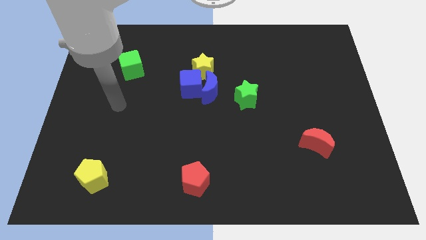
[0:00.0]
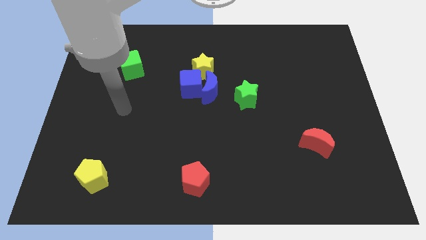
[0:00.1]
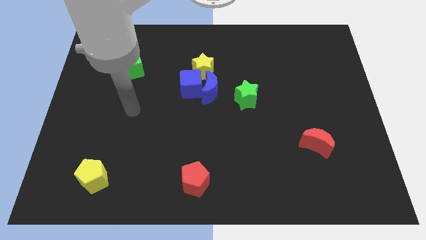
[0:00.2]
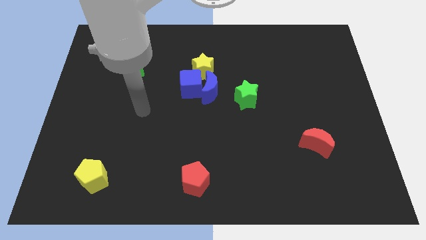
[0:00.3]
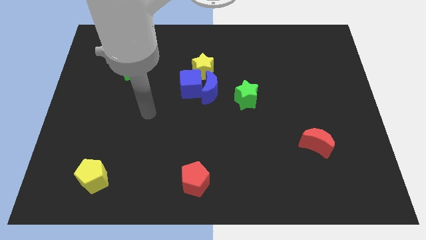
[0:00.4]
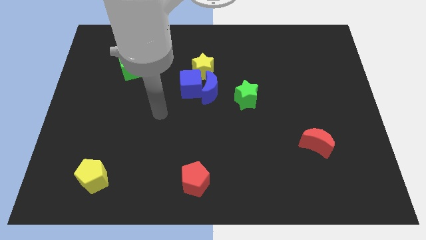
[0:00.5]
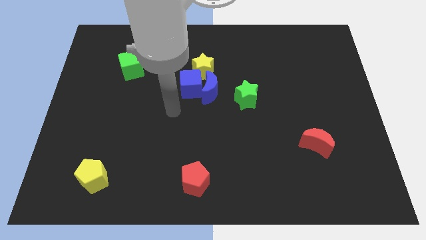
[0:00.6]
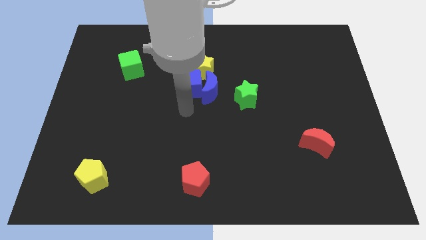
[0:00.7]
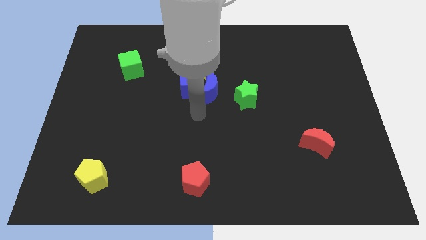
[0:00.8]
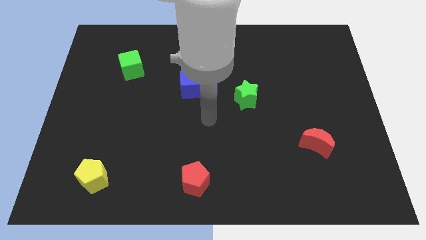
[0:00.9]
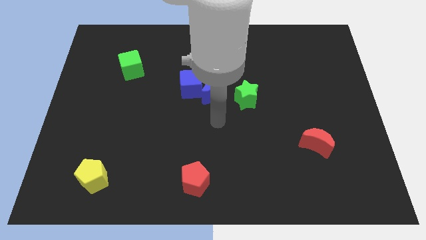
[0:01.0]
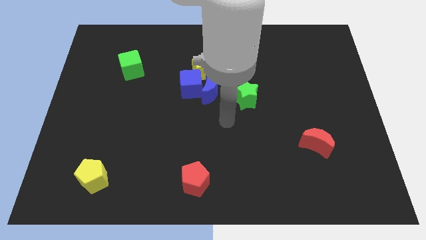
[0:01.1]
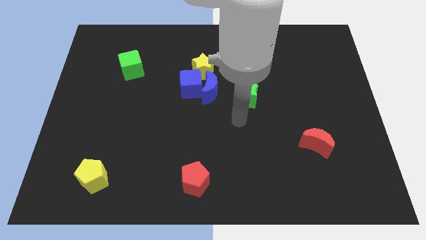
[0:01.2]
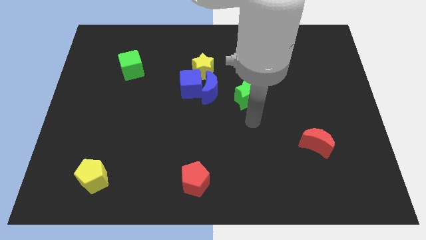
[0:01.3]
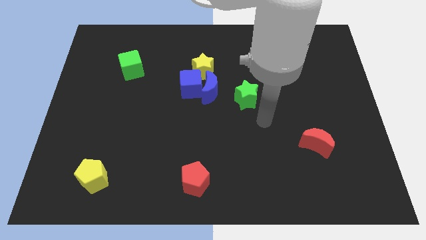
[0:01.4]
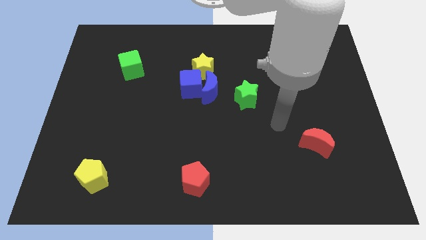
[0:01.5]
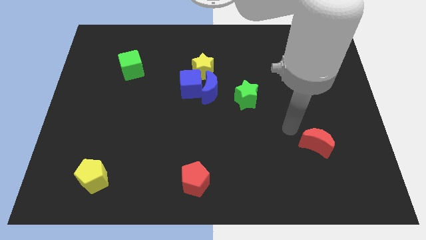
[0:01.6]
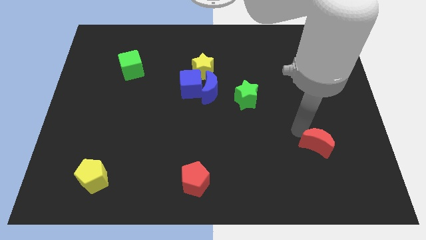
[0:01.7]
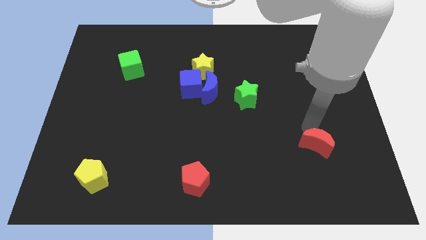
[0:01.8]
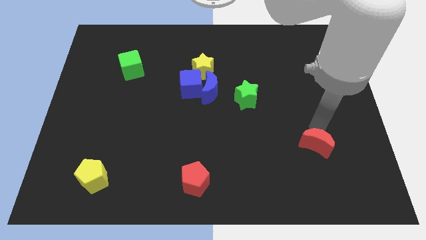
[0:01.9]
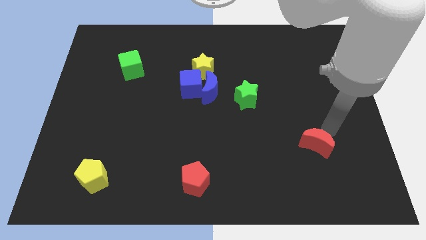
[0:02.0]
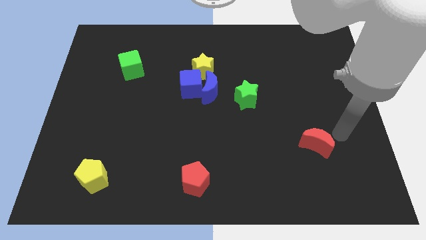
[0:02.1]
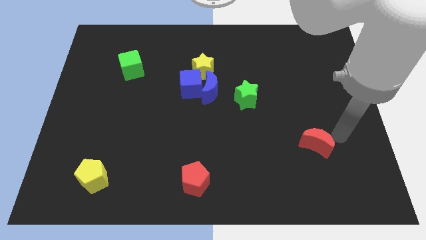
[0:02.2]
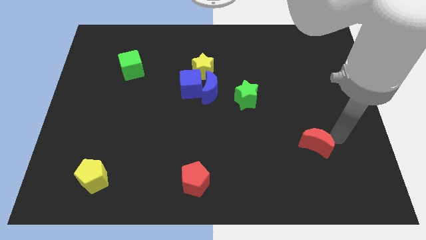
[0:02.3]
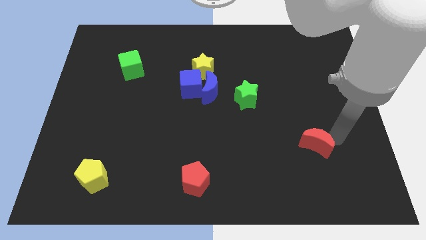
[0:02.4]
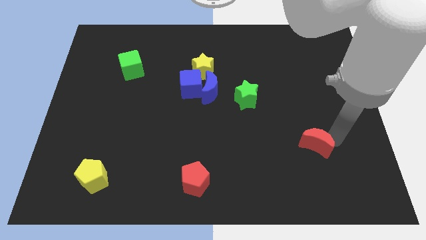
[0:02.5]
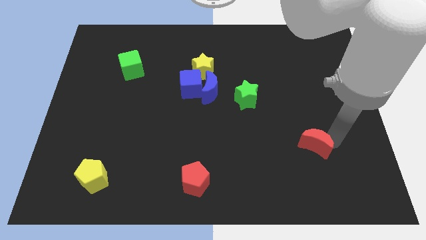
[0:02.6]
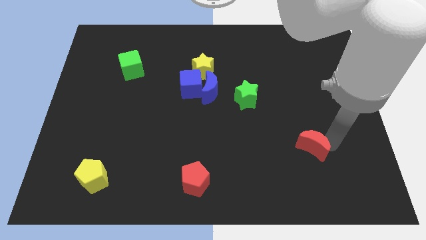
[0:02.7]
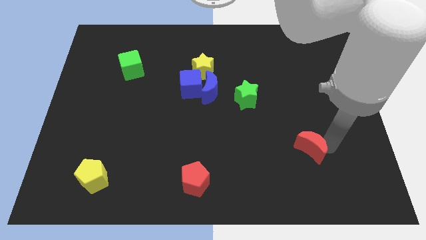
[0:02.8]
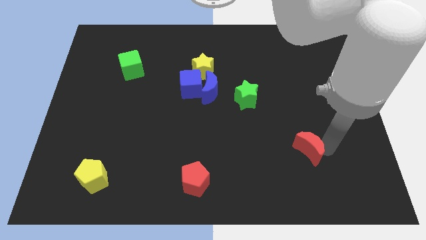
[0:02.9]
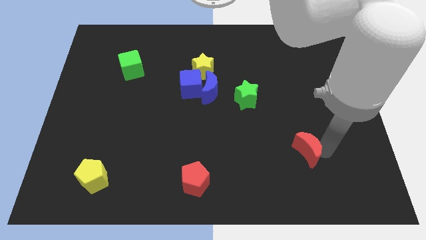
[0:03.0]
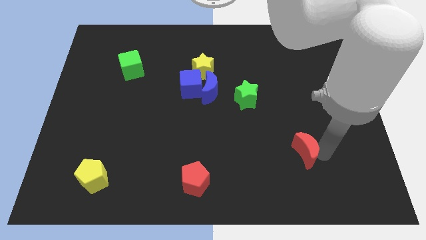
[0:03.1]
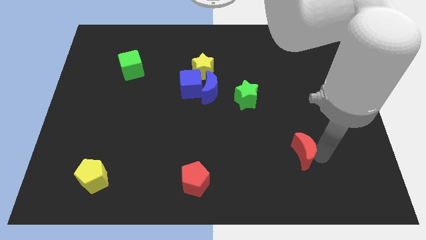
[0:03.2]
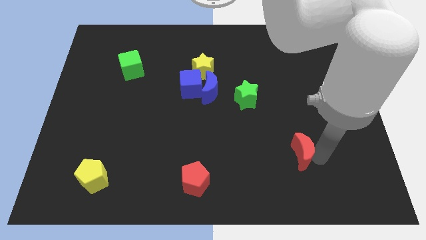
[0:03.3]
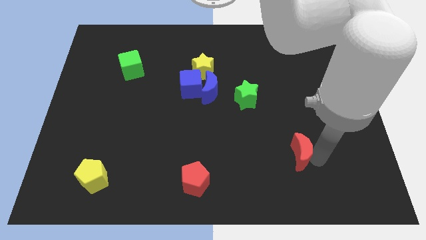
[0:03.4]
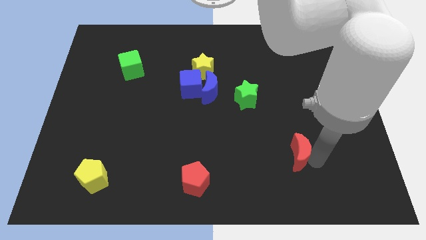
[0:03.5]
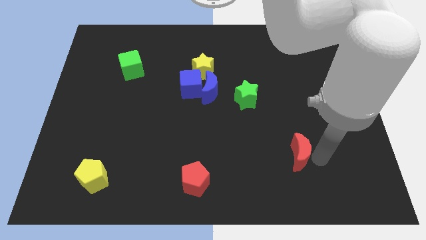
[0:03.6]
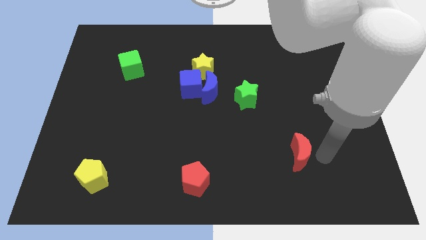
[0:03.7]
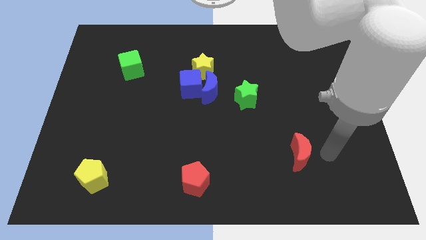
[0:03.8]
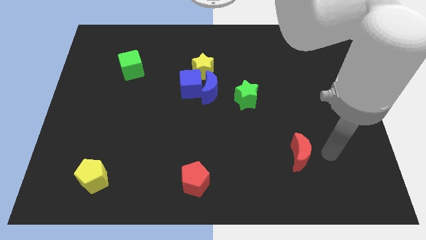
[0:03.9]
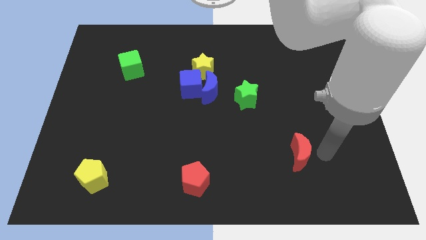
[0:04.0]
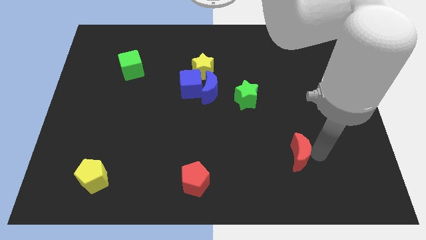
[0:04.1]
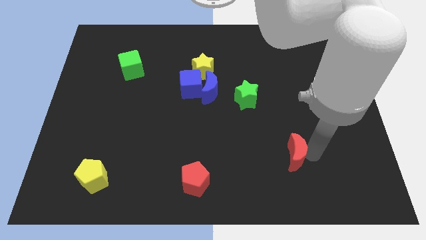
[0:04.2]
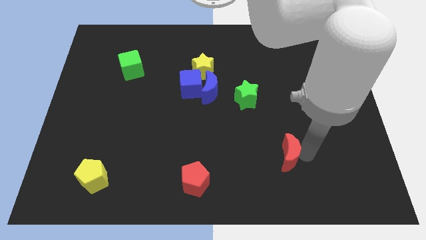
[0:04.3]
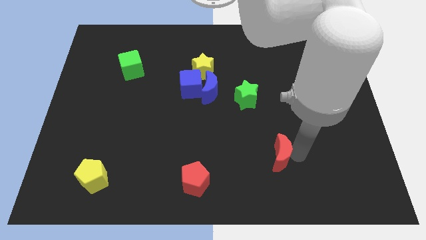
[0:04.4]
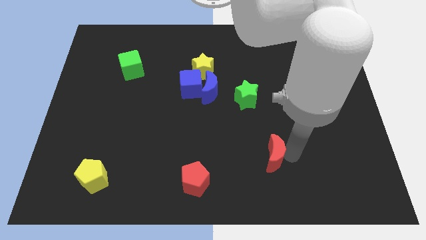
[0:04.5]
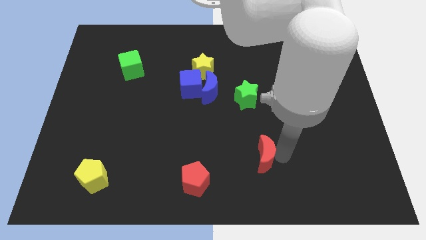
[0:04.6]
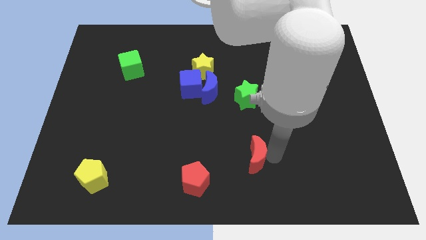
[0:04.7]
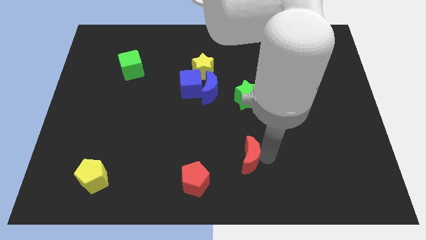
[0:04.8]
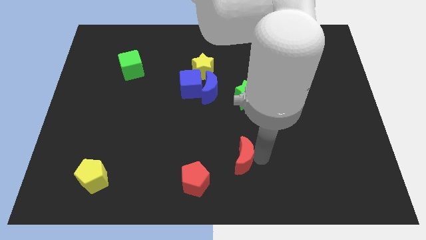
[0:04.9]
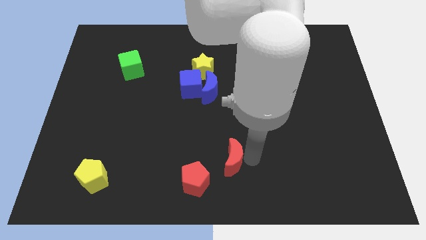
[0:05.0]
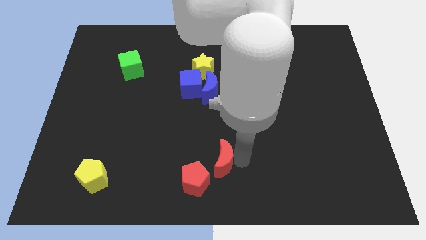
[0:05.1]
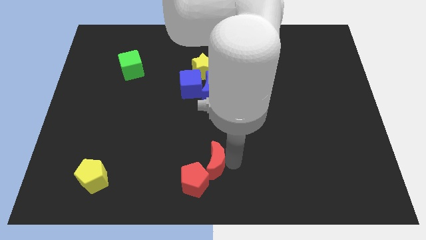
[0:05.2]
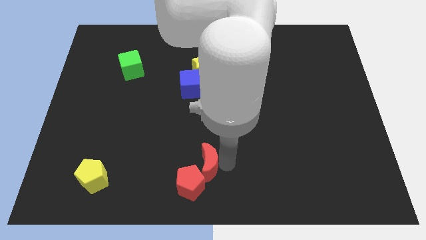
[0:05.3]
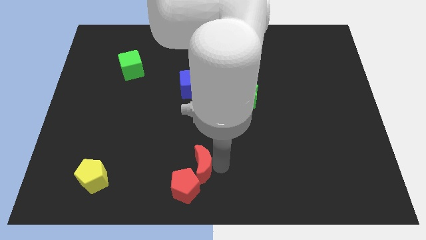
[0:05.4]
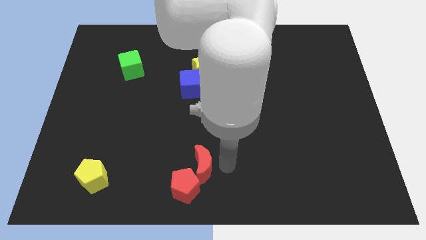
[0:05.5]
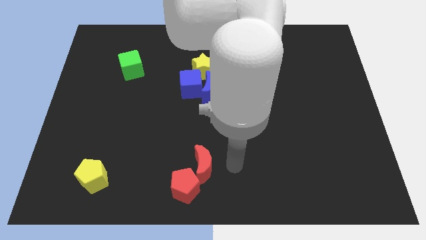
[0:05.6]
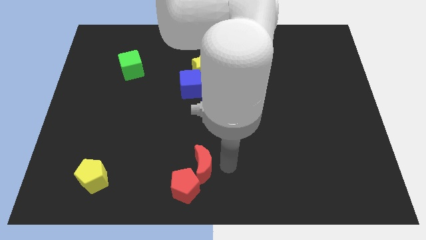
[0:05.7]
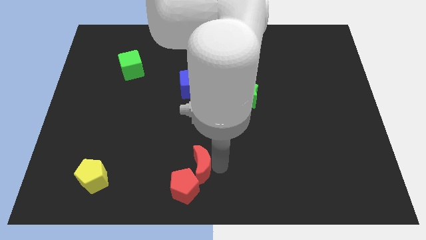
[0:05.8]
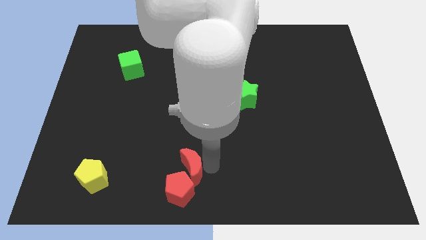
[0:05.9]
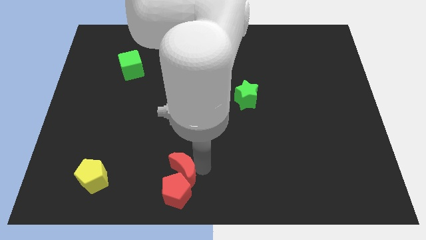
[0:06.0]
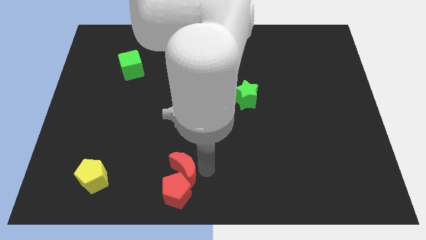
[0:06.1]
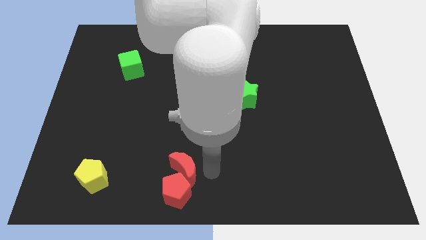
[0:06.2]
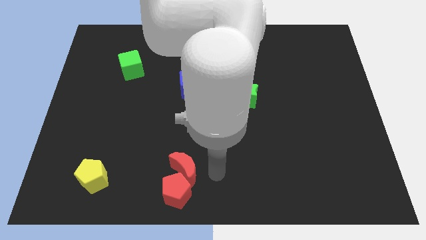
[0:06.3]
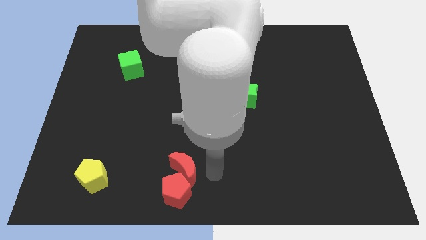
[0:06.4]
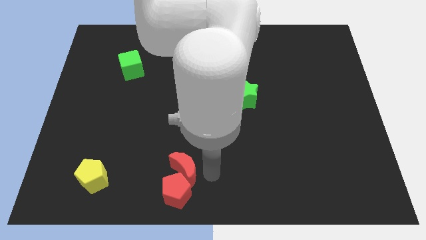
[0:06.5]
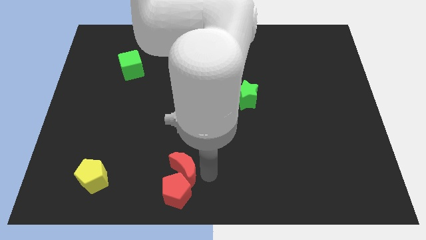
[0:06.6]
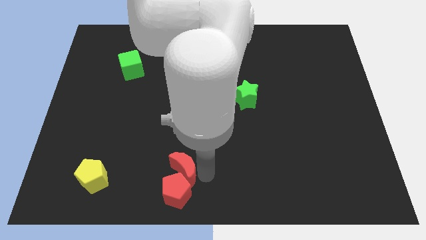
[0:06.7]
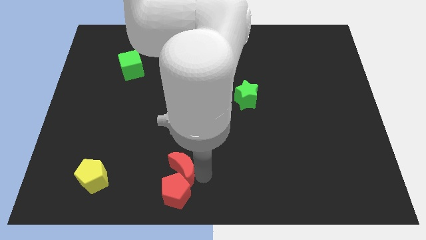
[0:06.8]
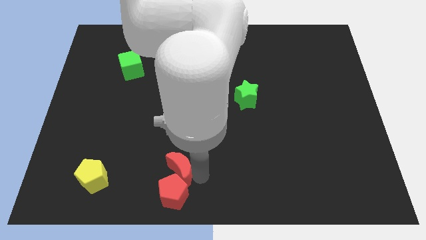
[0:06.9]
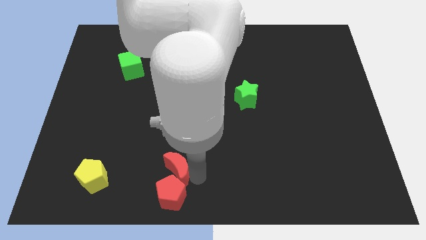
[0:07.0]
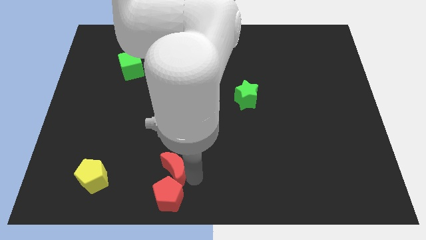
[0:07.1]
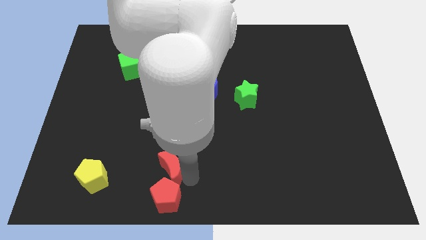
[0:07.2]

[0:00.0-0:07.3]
move the red moon to the right of the yellow pentagon
